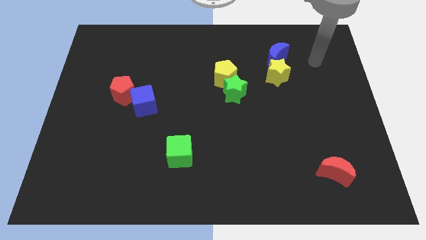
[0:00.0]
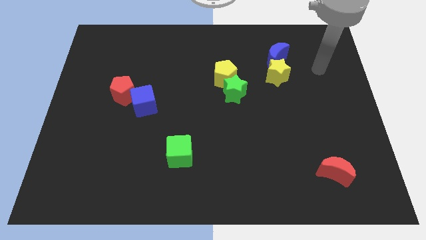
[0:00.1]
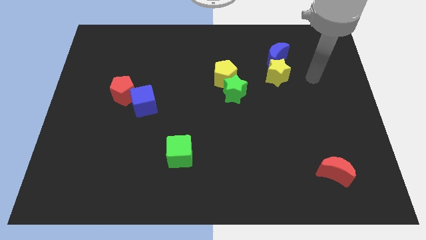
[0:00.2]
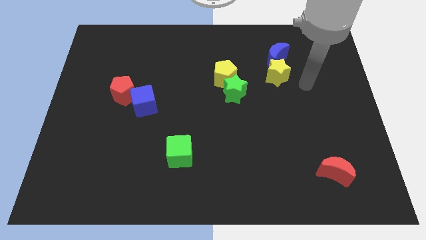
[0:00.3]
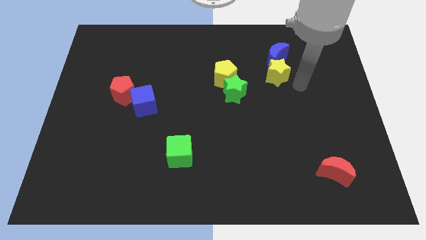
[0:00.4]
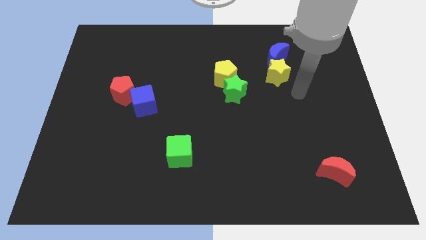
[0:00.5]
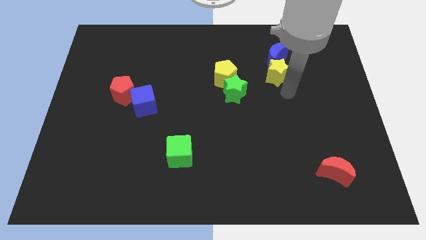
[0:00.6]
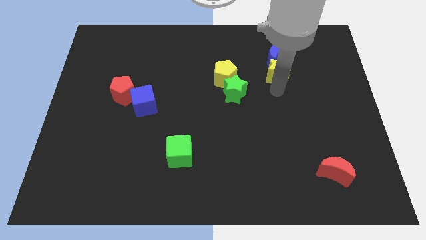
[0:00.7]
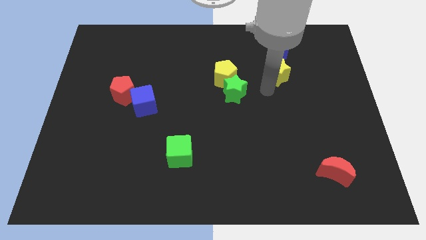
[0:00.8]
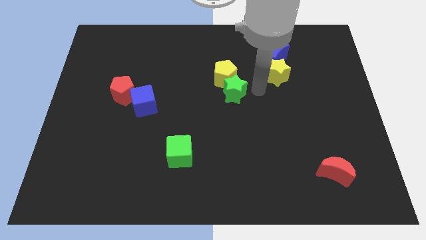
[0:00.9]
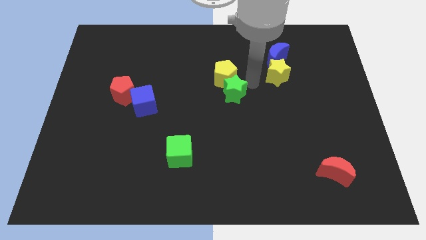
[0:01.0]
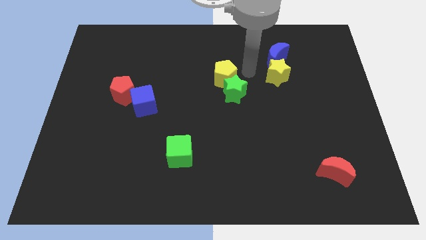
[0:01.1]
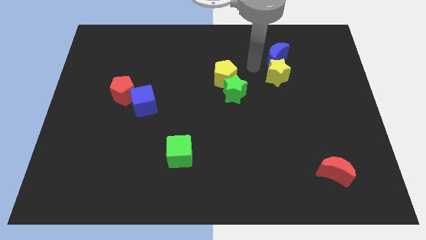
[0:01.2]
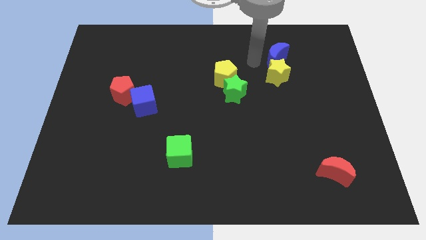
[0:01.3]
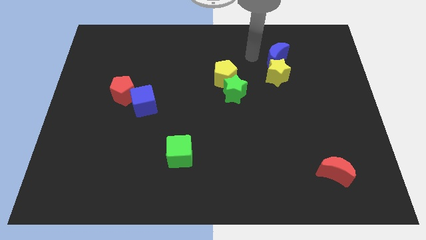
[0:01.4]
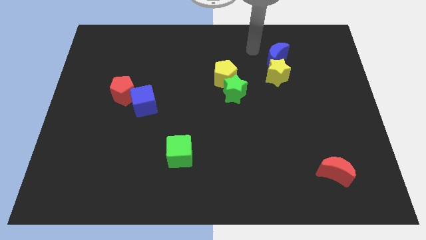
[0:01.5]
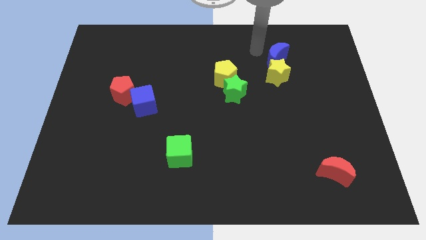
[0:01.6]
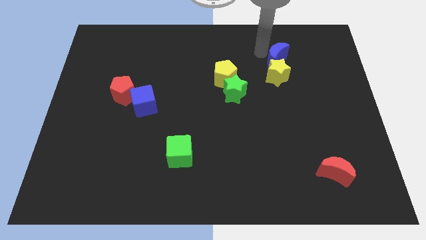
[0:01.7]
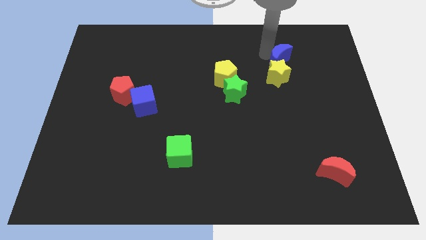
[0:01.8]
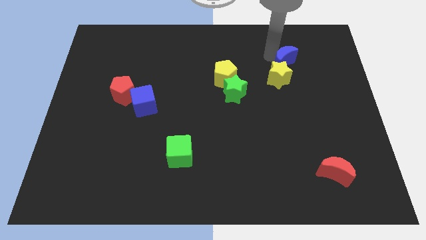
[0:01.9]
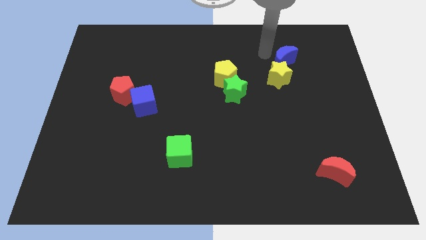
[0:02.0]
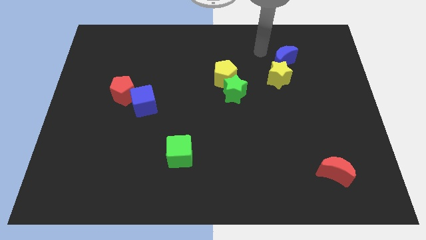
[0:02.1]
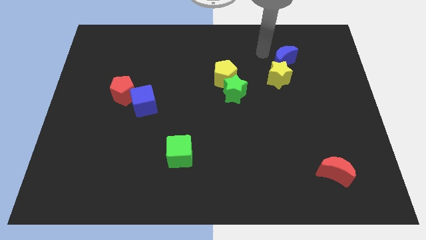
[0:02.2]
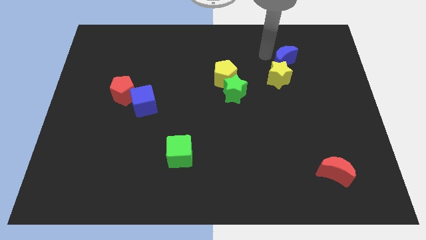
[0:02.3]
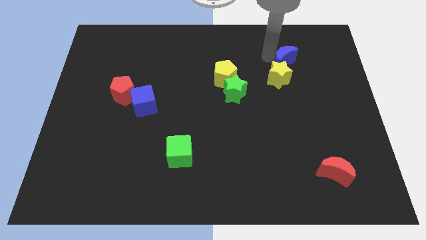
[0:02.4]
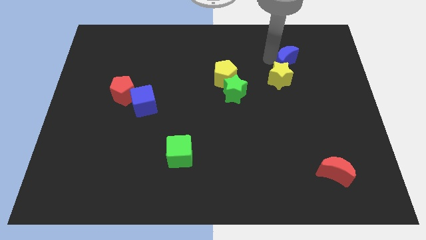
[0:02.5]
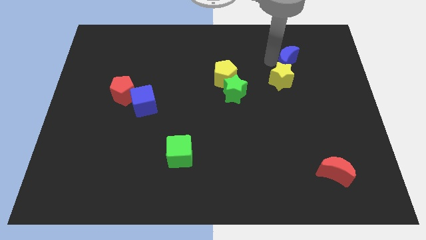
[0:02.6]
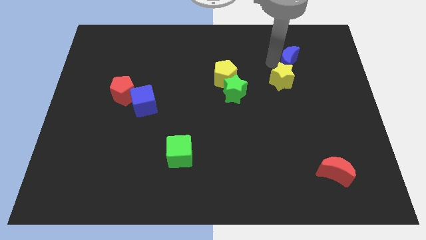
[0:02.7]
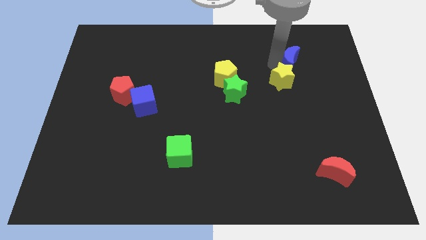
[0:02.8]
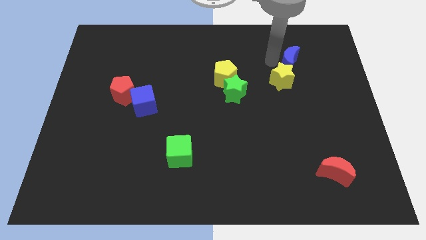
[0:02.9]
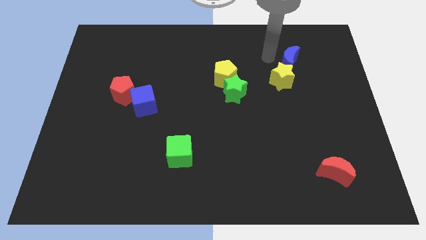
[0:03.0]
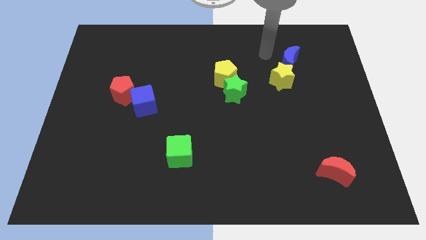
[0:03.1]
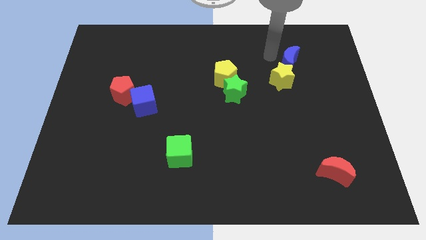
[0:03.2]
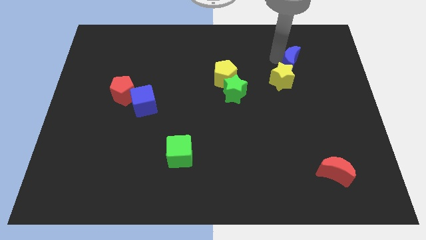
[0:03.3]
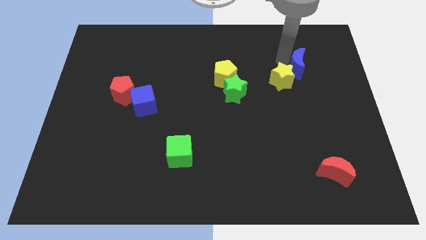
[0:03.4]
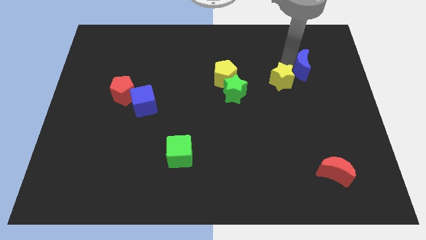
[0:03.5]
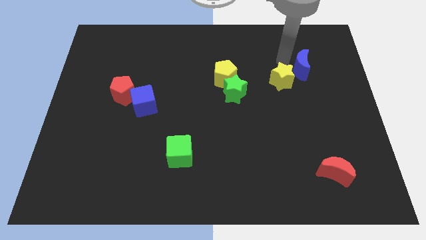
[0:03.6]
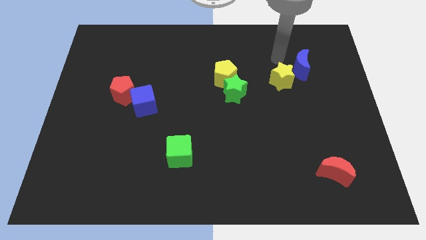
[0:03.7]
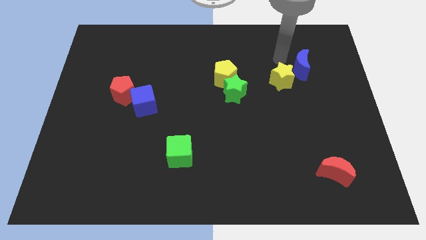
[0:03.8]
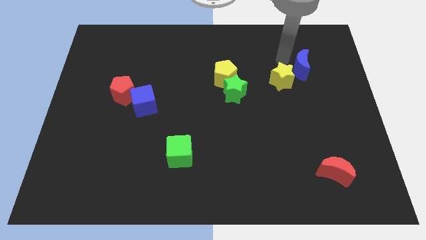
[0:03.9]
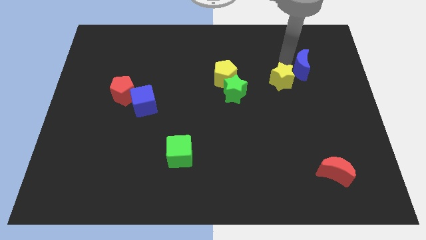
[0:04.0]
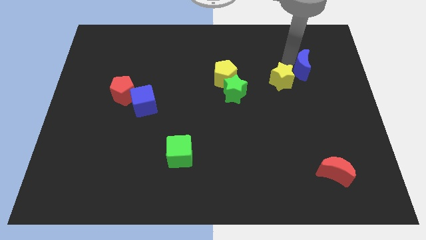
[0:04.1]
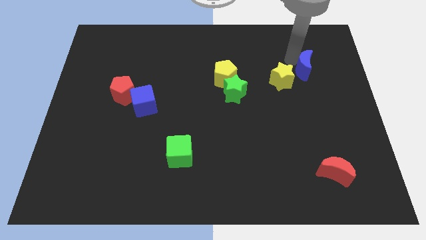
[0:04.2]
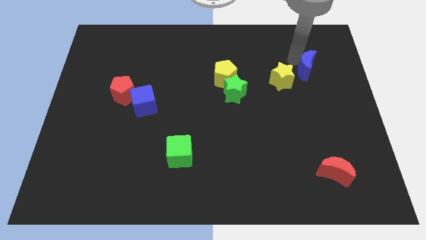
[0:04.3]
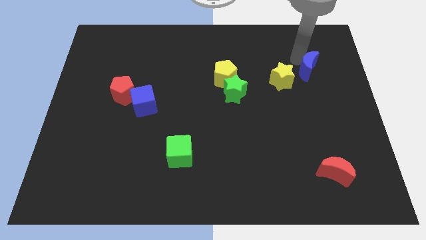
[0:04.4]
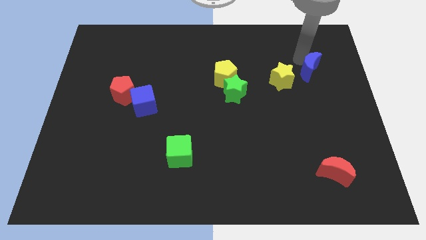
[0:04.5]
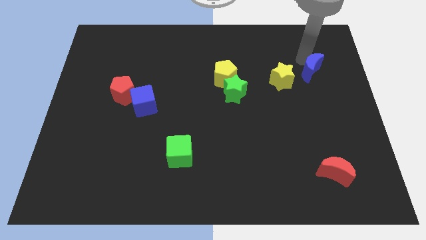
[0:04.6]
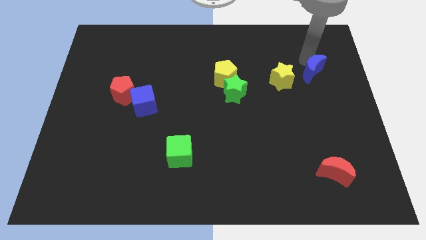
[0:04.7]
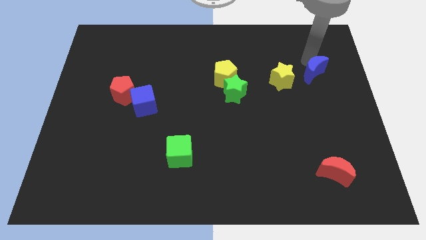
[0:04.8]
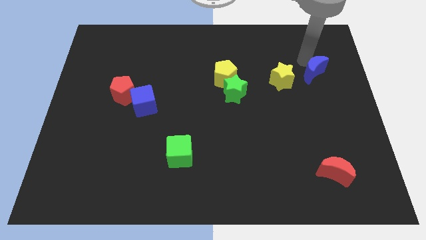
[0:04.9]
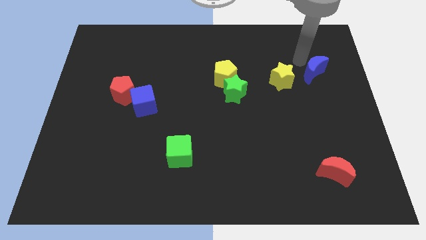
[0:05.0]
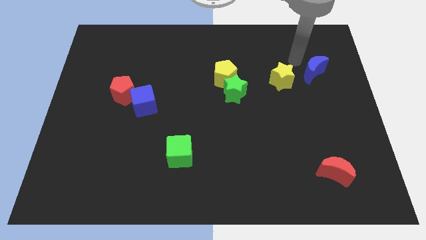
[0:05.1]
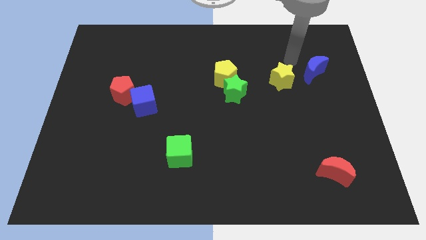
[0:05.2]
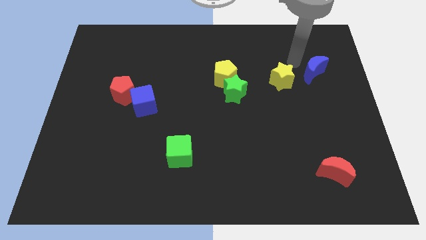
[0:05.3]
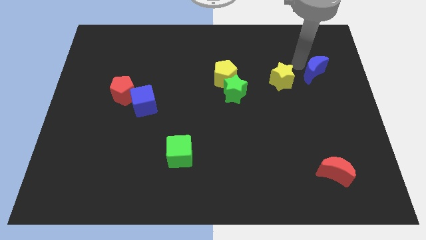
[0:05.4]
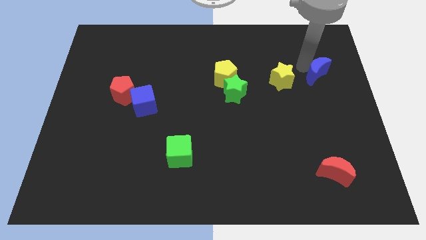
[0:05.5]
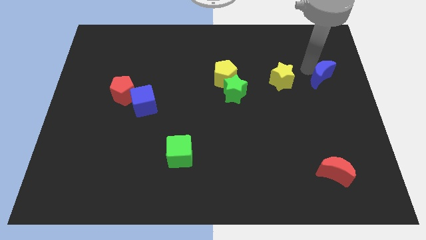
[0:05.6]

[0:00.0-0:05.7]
push the blue moon to the right side

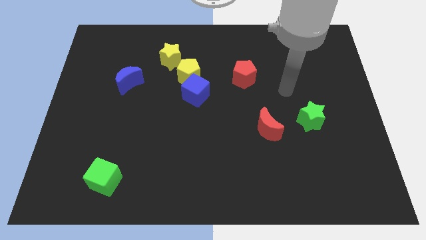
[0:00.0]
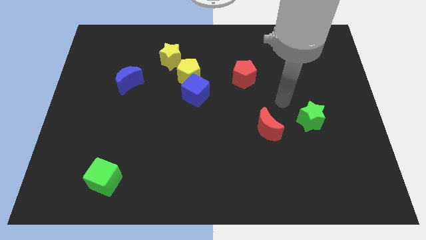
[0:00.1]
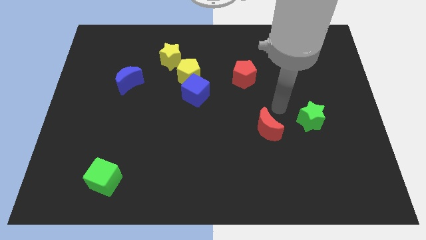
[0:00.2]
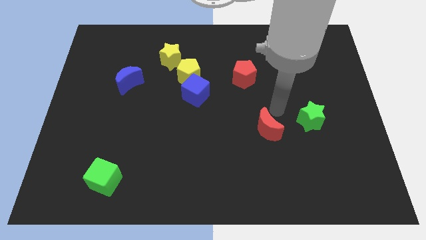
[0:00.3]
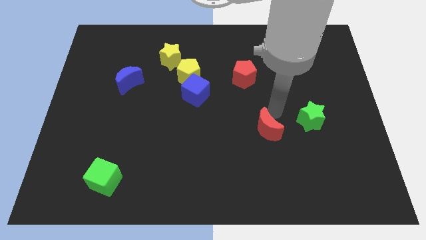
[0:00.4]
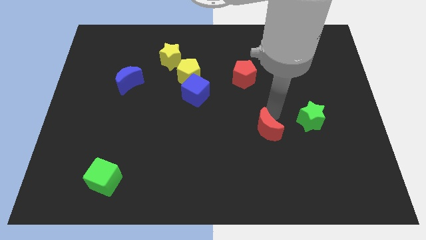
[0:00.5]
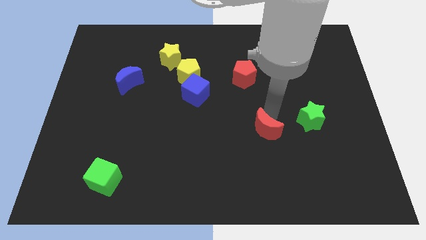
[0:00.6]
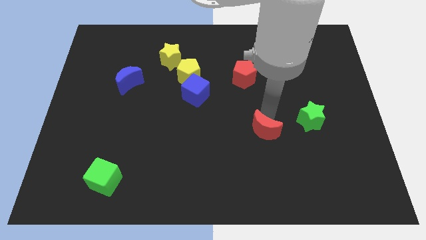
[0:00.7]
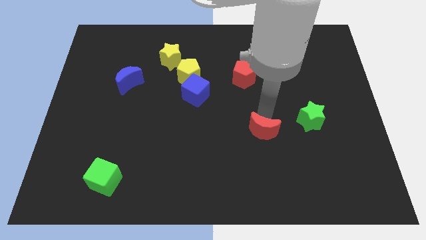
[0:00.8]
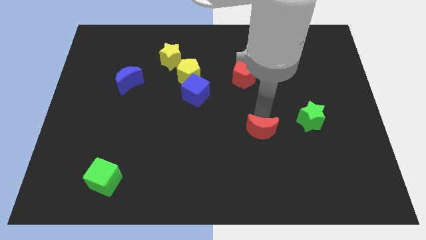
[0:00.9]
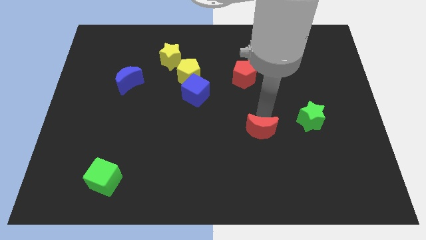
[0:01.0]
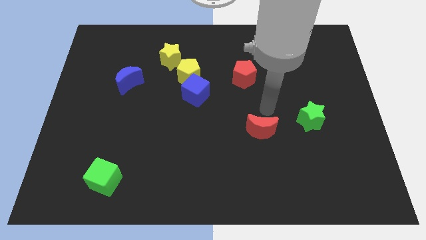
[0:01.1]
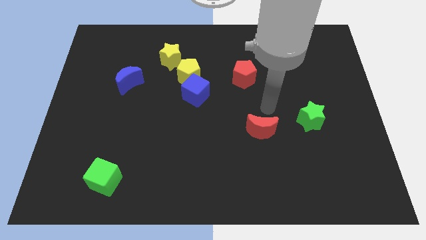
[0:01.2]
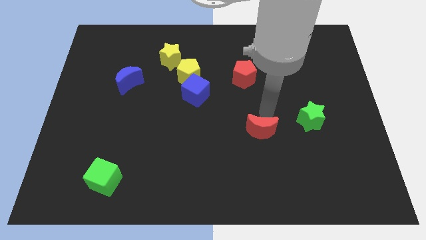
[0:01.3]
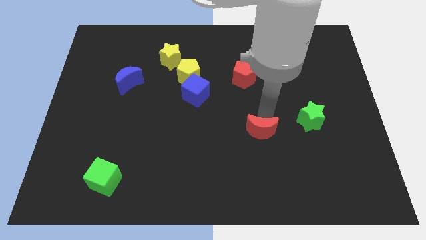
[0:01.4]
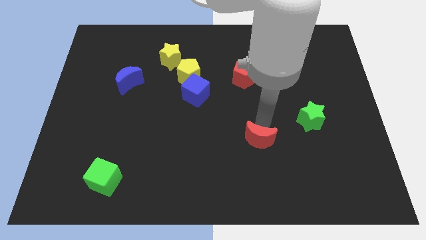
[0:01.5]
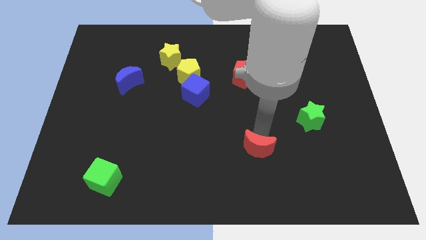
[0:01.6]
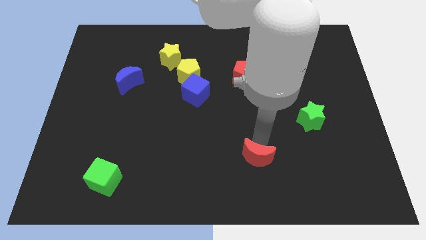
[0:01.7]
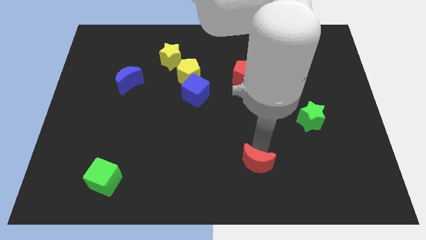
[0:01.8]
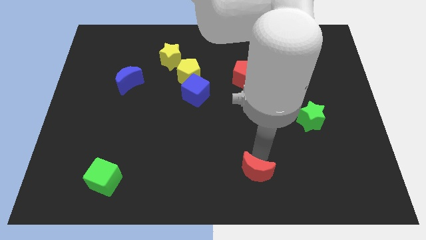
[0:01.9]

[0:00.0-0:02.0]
put the red moon to the bottom
